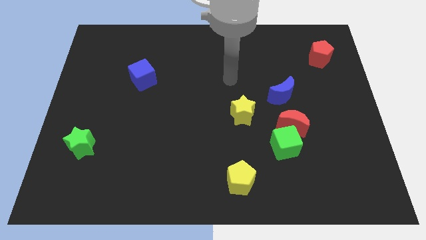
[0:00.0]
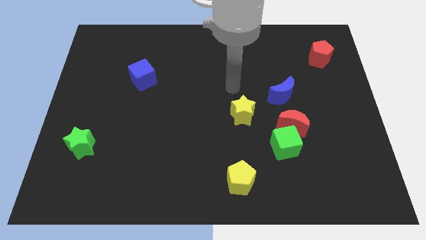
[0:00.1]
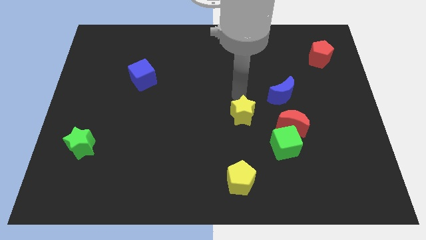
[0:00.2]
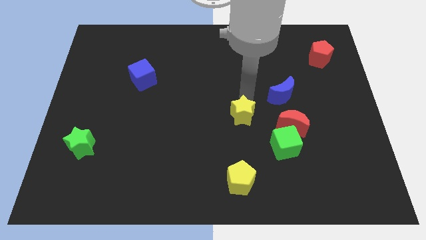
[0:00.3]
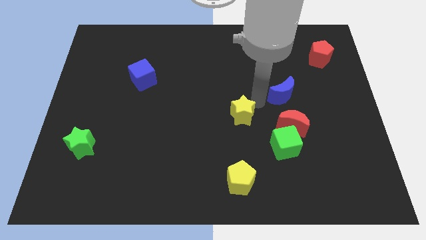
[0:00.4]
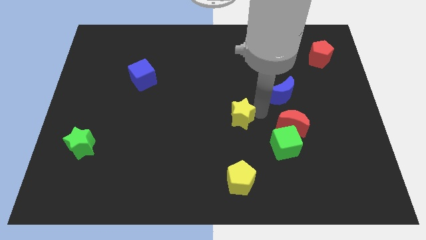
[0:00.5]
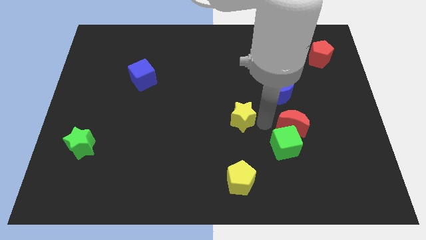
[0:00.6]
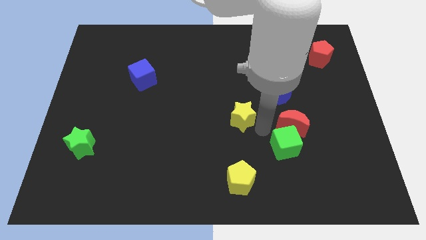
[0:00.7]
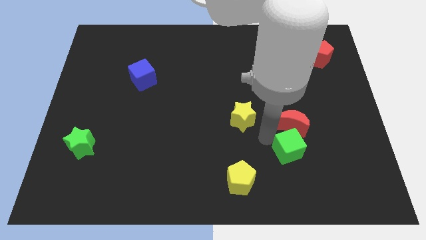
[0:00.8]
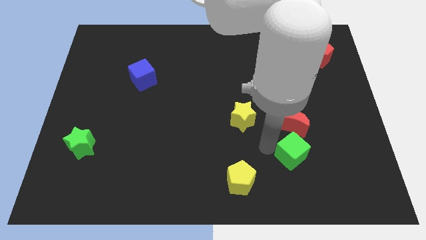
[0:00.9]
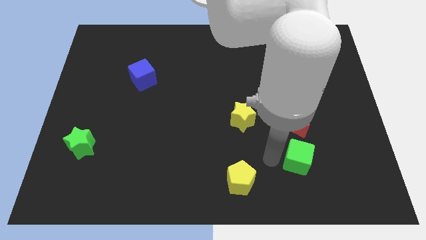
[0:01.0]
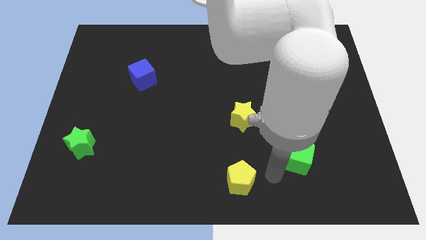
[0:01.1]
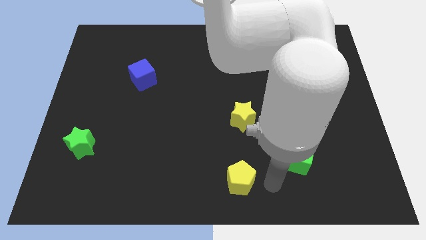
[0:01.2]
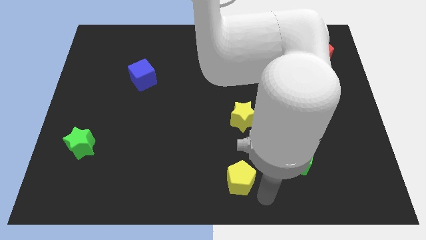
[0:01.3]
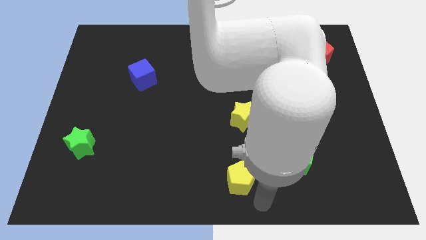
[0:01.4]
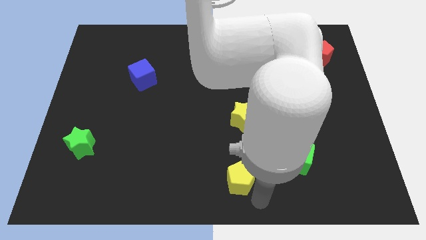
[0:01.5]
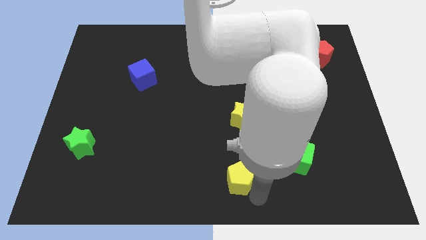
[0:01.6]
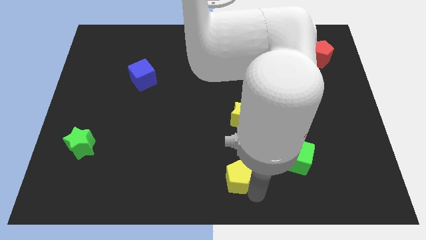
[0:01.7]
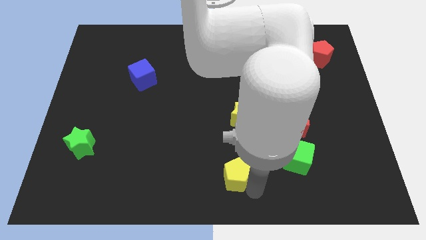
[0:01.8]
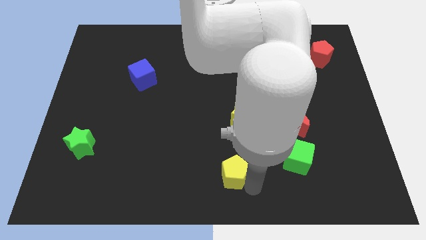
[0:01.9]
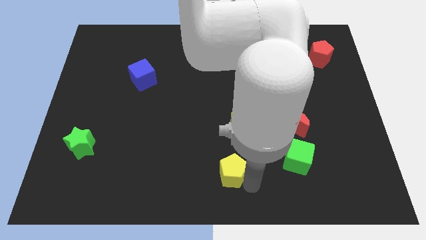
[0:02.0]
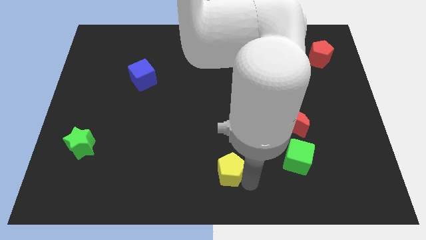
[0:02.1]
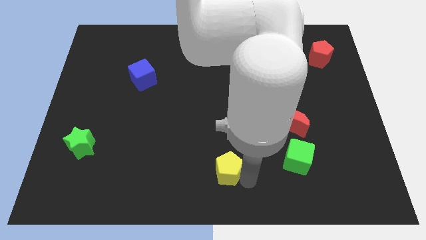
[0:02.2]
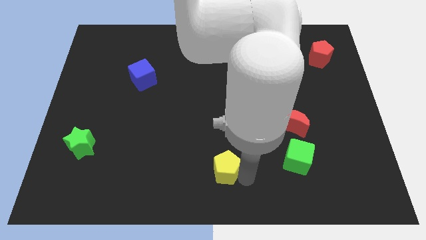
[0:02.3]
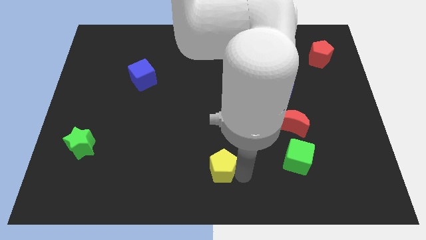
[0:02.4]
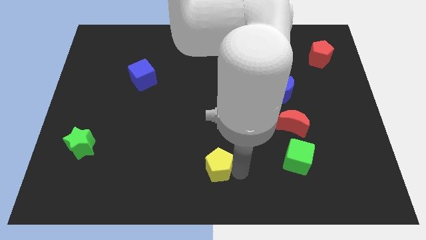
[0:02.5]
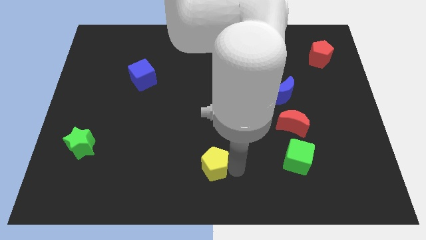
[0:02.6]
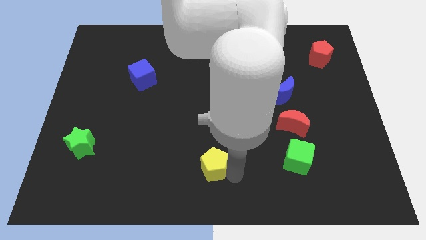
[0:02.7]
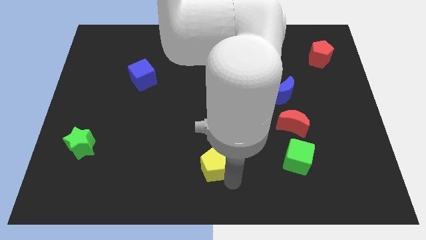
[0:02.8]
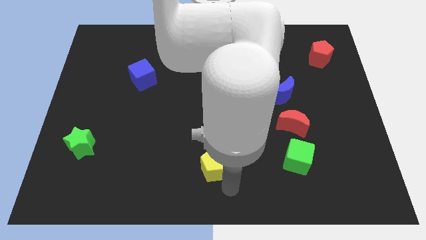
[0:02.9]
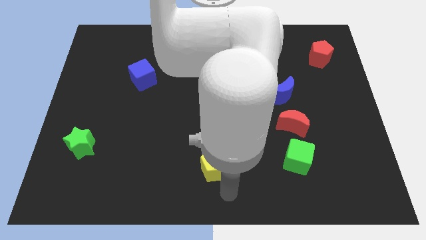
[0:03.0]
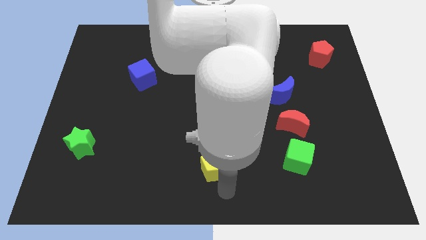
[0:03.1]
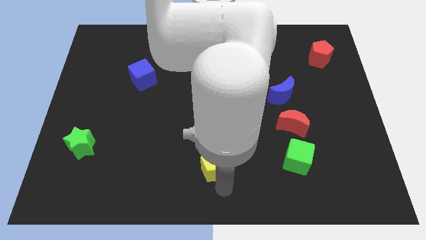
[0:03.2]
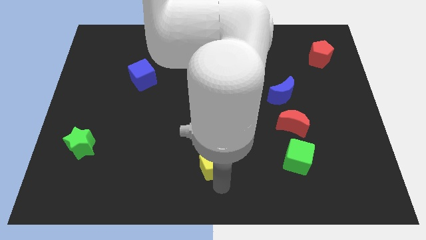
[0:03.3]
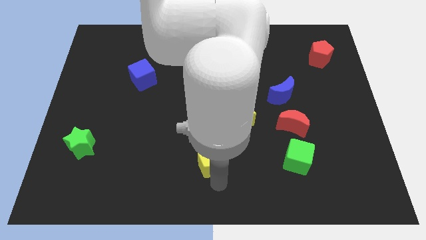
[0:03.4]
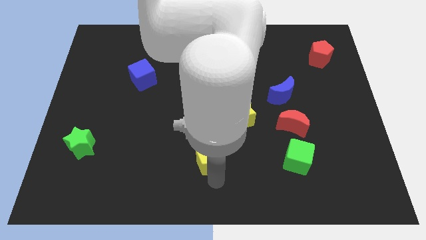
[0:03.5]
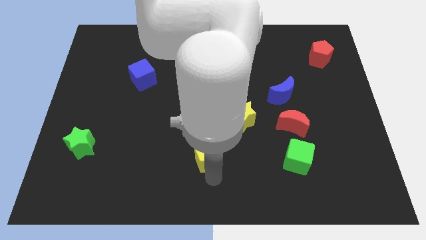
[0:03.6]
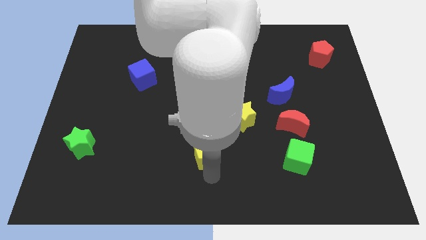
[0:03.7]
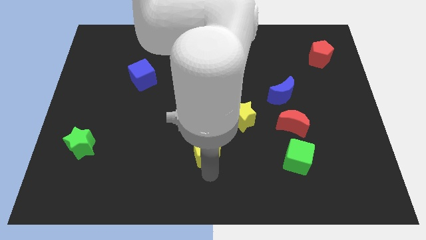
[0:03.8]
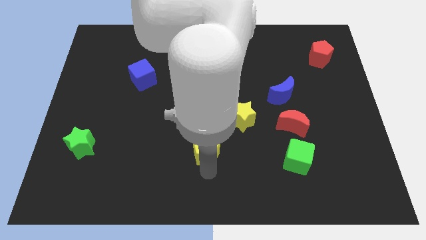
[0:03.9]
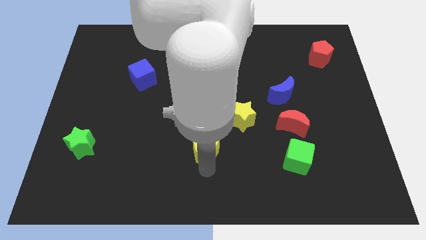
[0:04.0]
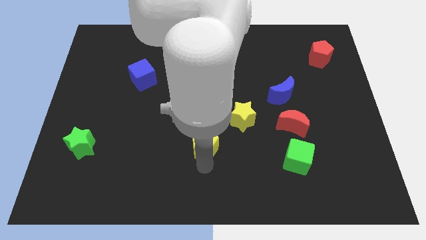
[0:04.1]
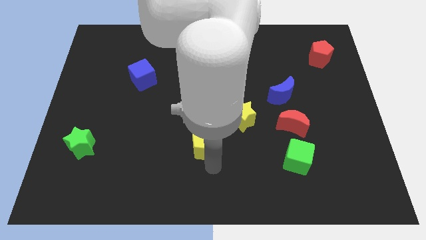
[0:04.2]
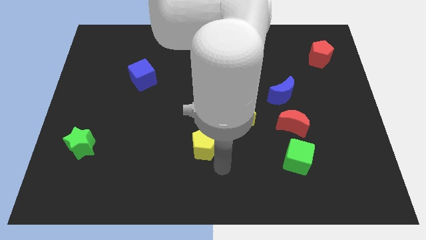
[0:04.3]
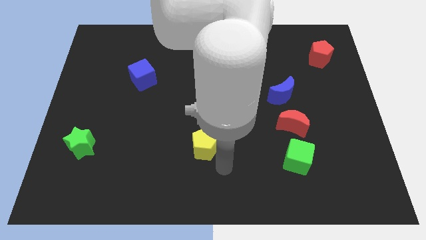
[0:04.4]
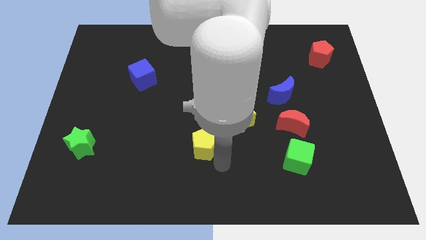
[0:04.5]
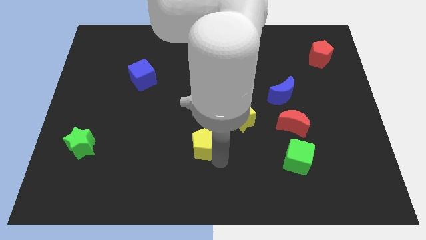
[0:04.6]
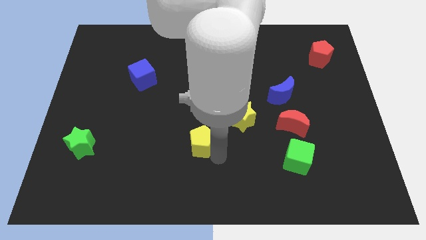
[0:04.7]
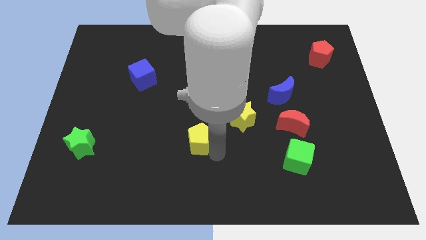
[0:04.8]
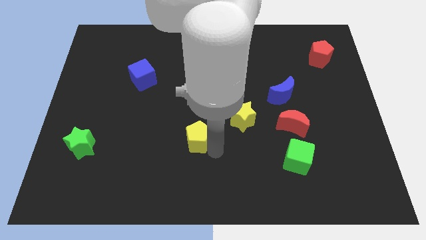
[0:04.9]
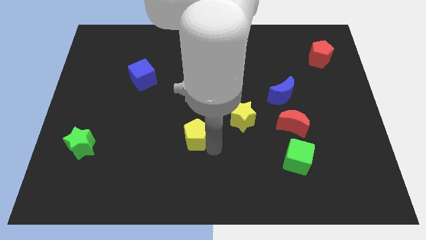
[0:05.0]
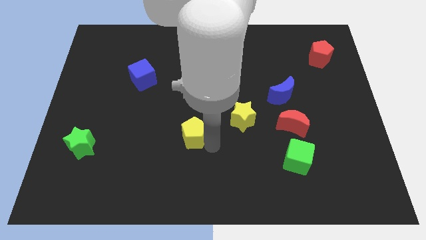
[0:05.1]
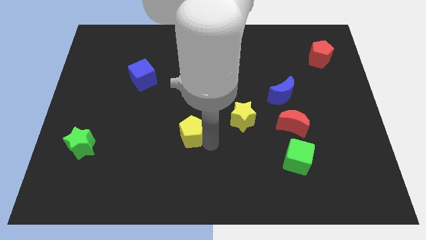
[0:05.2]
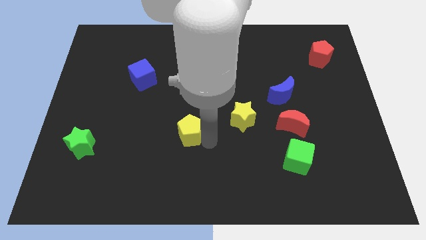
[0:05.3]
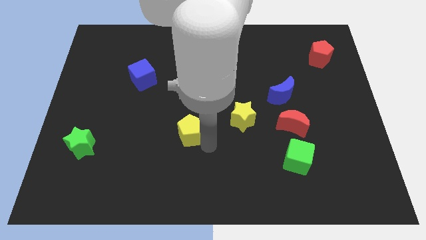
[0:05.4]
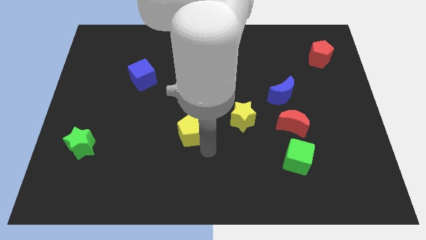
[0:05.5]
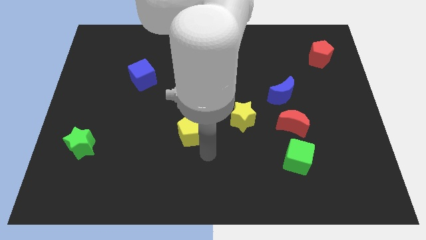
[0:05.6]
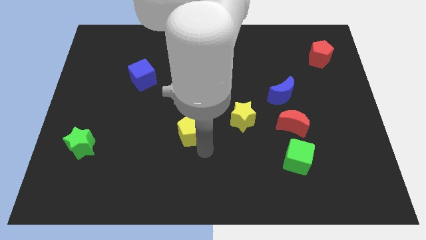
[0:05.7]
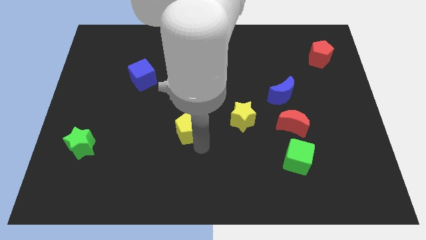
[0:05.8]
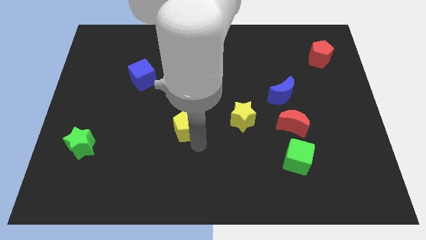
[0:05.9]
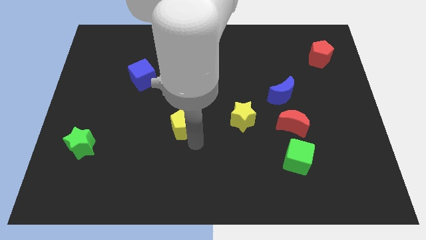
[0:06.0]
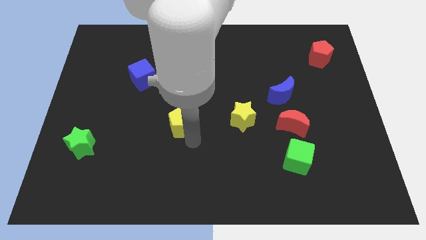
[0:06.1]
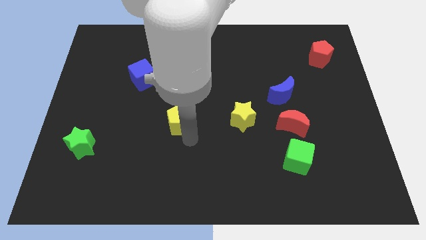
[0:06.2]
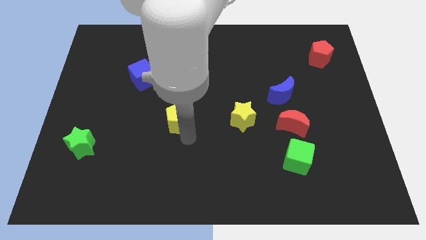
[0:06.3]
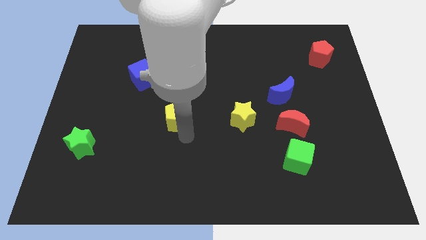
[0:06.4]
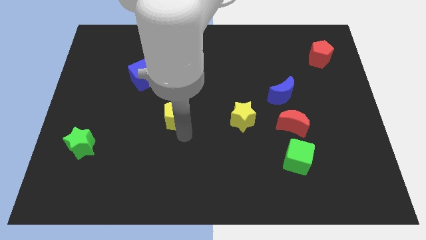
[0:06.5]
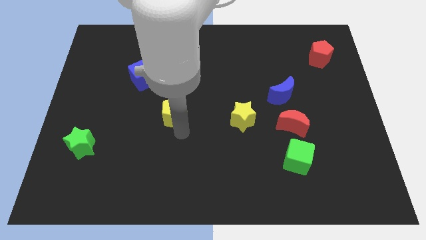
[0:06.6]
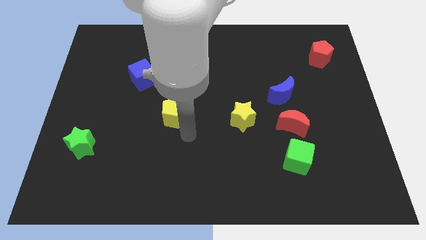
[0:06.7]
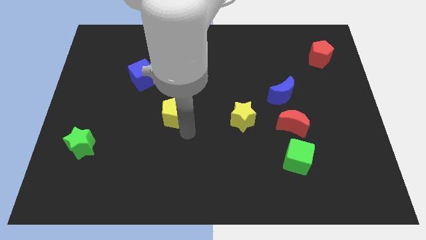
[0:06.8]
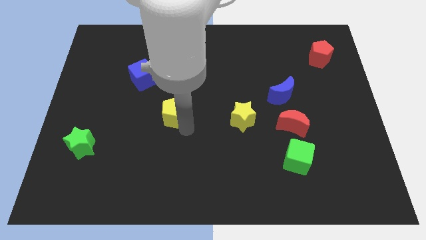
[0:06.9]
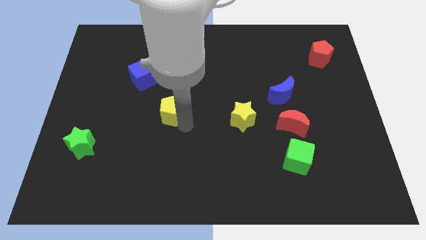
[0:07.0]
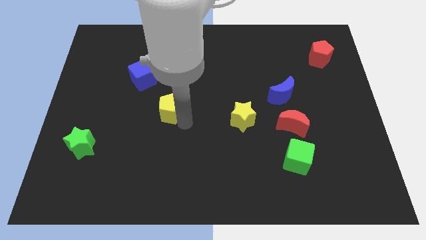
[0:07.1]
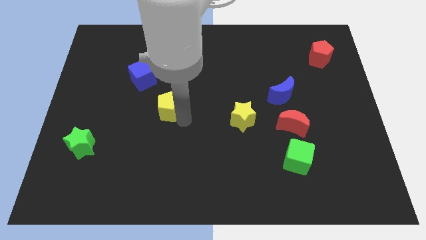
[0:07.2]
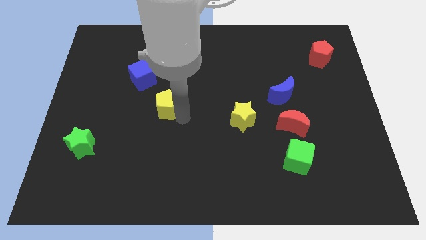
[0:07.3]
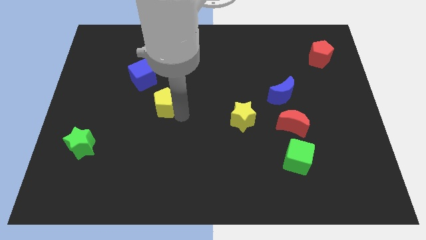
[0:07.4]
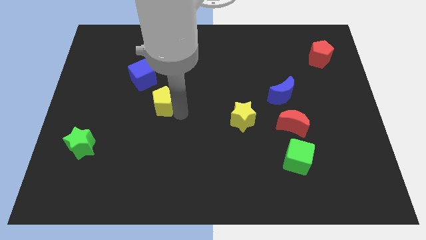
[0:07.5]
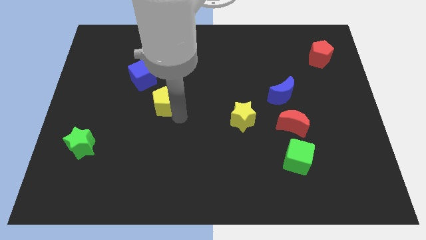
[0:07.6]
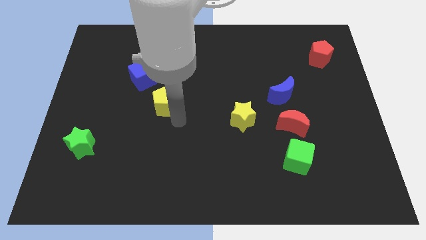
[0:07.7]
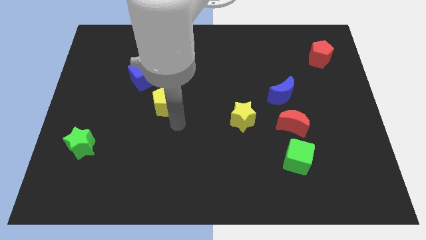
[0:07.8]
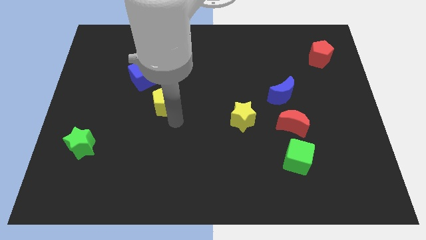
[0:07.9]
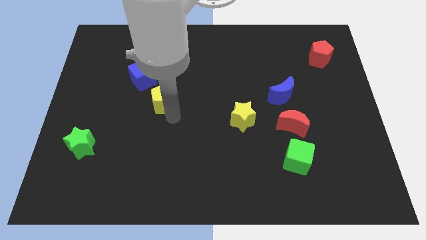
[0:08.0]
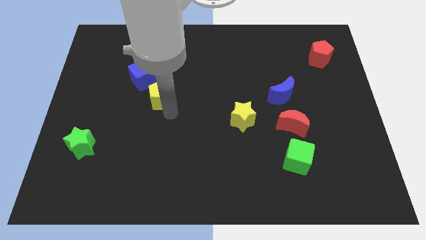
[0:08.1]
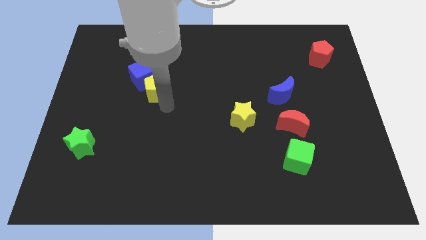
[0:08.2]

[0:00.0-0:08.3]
move the yellow pentagon next to the blue cube
